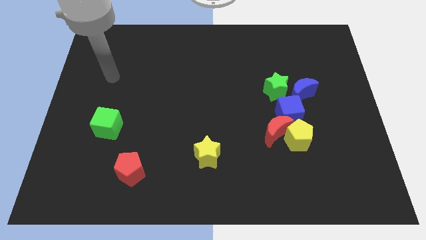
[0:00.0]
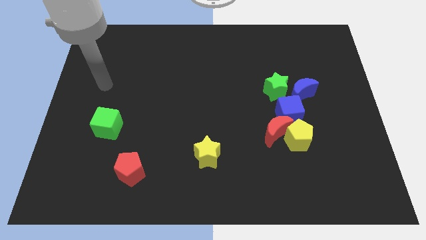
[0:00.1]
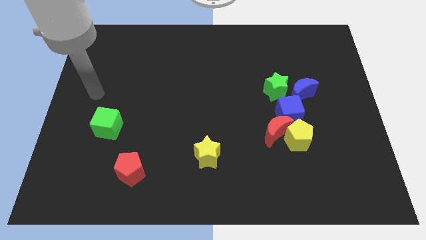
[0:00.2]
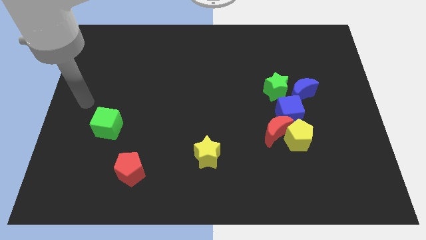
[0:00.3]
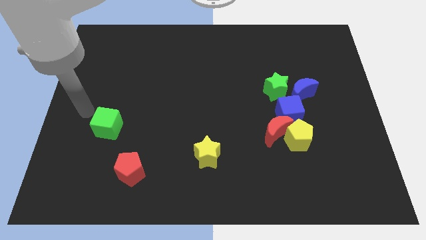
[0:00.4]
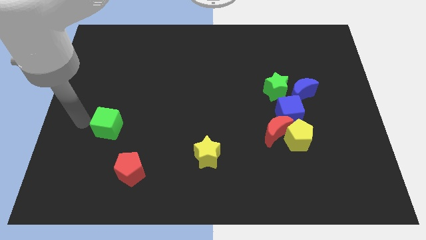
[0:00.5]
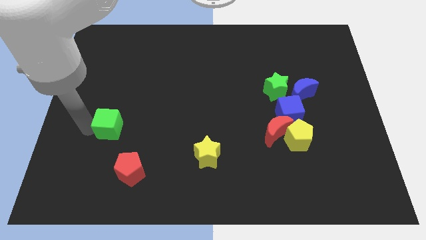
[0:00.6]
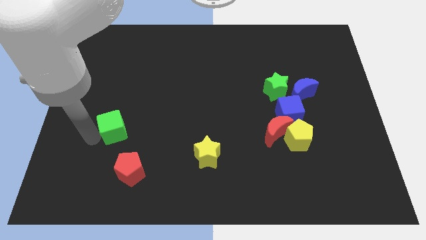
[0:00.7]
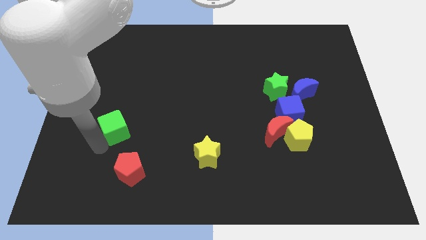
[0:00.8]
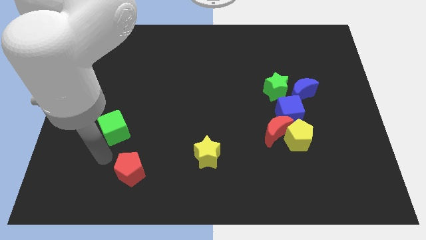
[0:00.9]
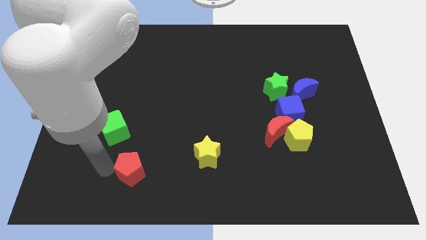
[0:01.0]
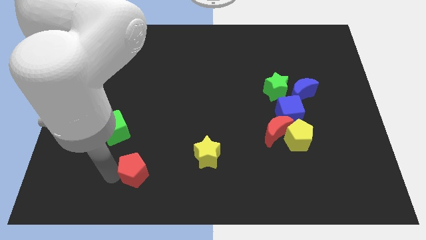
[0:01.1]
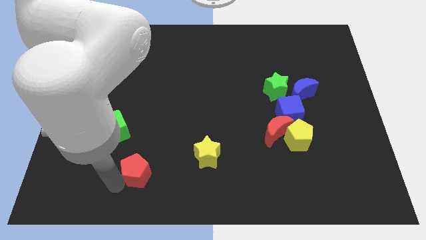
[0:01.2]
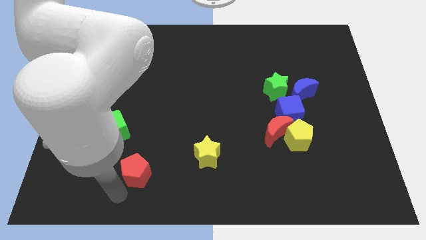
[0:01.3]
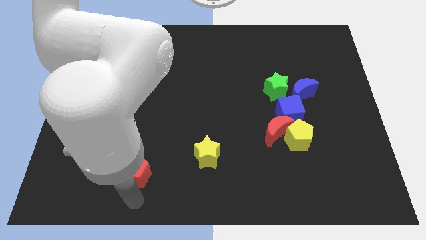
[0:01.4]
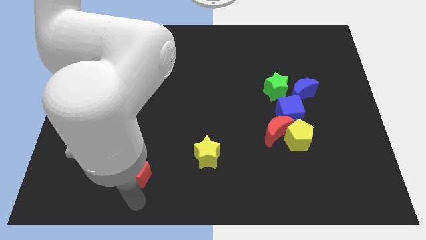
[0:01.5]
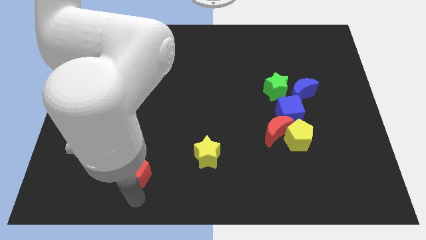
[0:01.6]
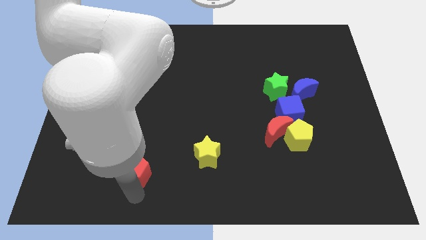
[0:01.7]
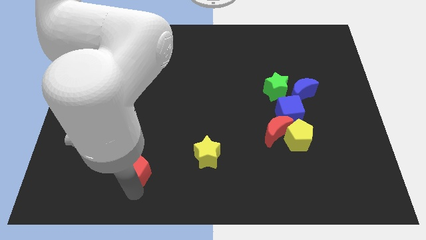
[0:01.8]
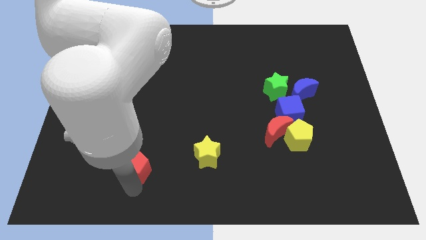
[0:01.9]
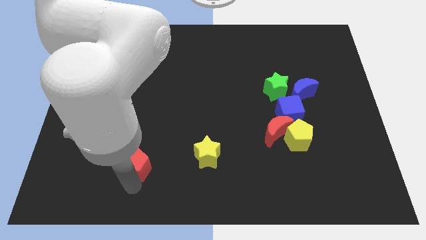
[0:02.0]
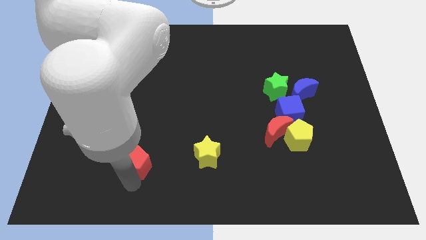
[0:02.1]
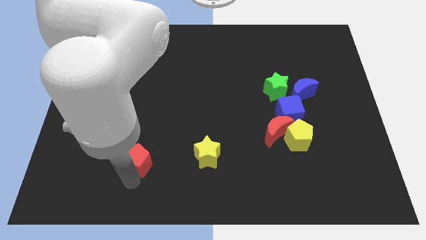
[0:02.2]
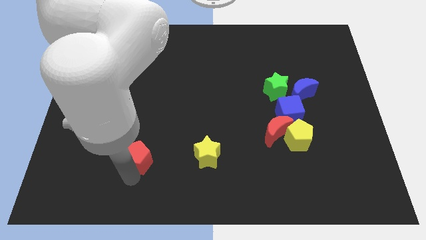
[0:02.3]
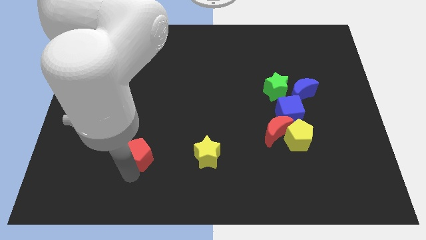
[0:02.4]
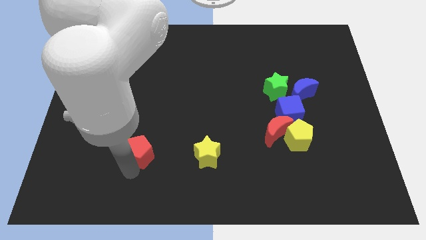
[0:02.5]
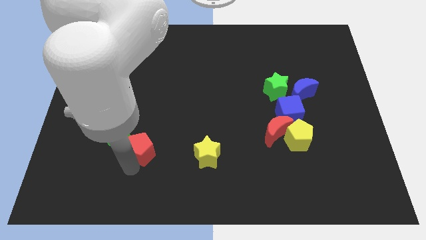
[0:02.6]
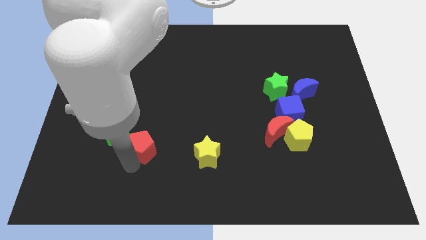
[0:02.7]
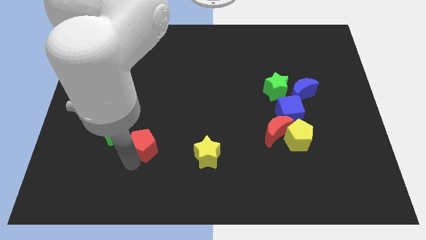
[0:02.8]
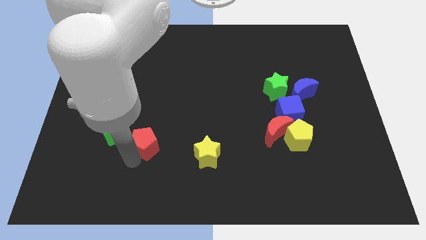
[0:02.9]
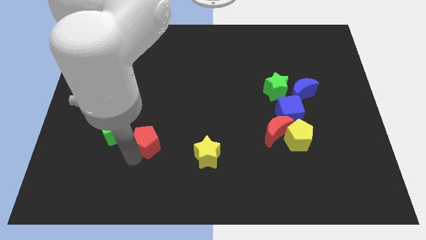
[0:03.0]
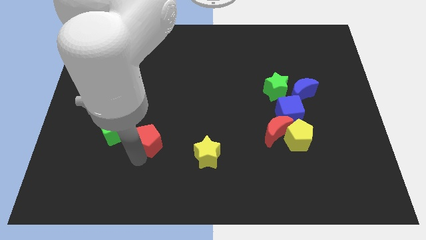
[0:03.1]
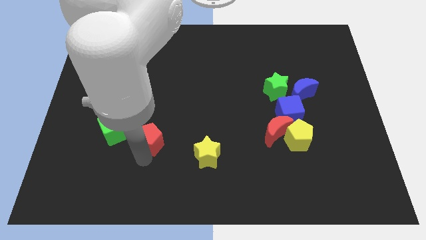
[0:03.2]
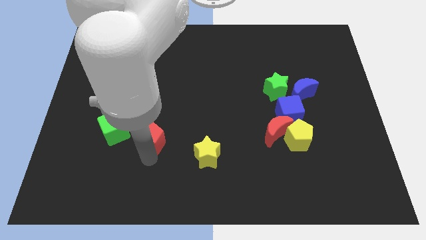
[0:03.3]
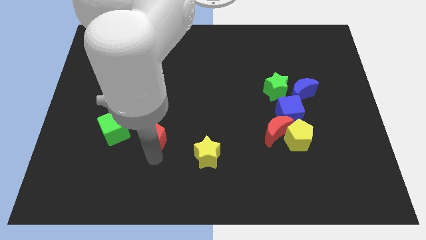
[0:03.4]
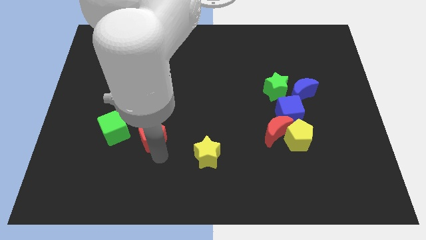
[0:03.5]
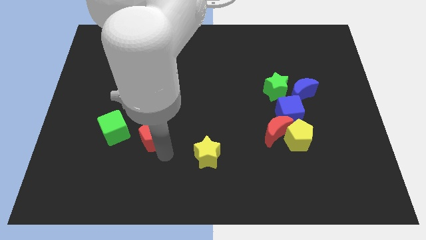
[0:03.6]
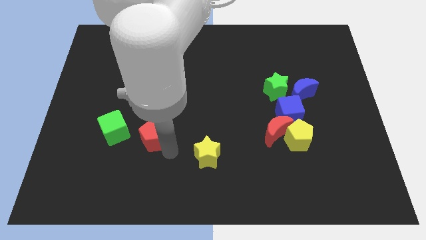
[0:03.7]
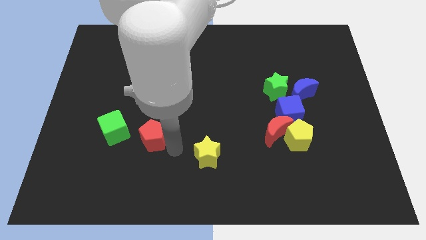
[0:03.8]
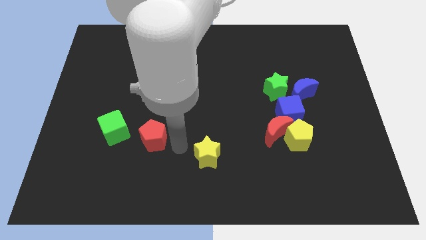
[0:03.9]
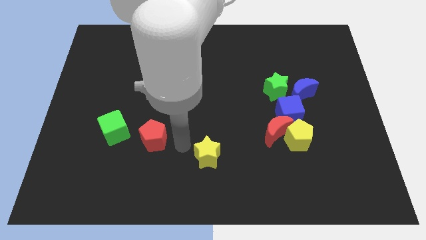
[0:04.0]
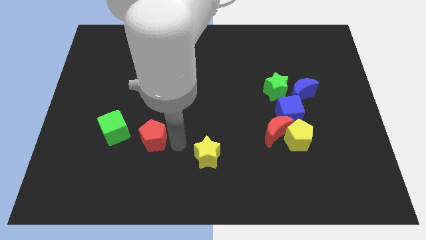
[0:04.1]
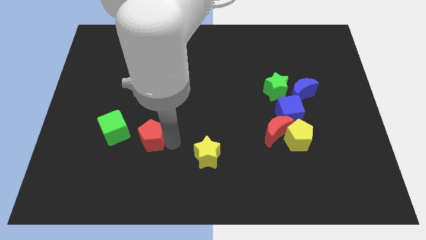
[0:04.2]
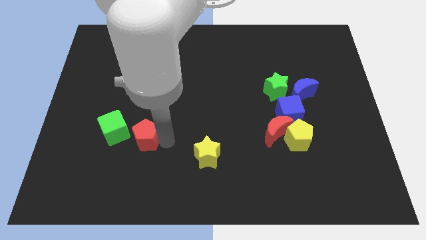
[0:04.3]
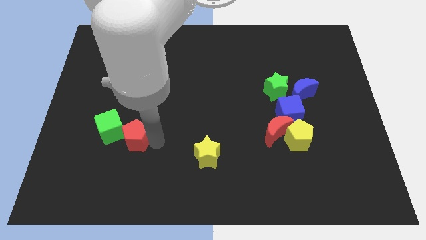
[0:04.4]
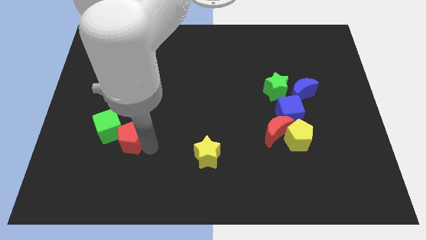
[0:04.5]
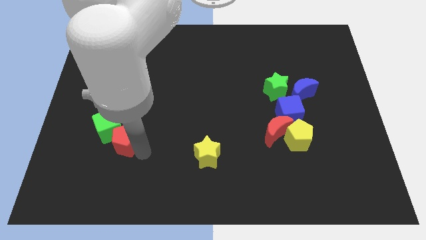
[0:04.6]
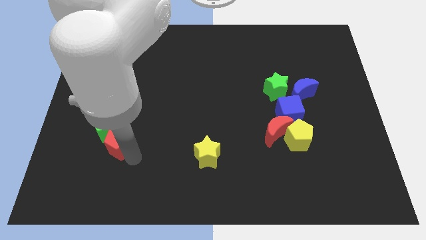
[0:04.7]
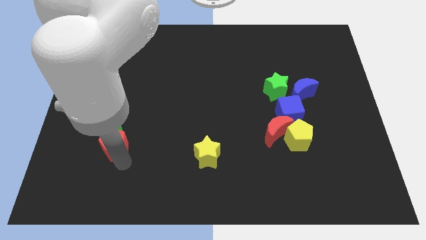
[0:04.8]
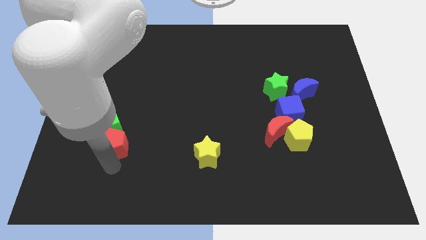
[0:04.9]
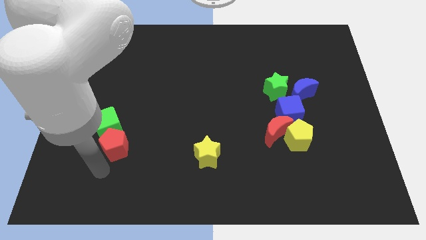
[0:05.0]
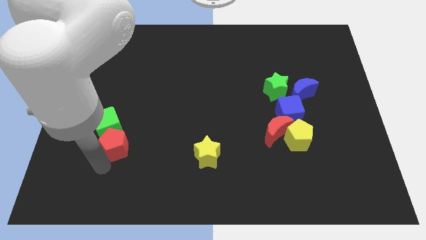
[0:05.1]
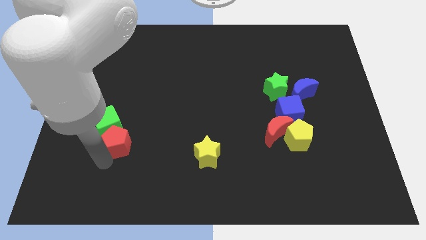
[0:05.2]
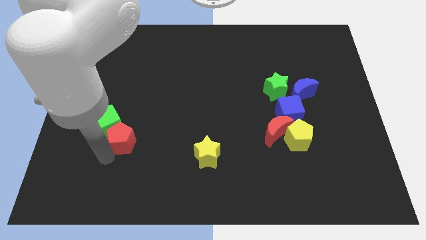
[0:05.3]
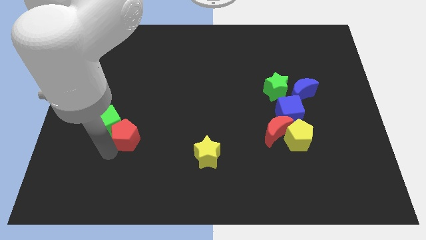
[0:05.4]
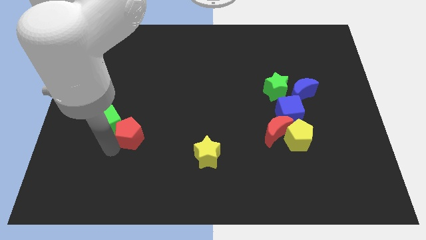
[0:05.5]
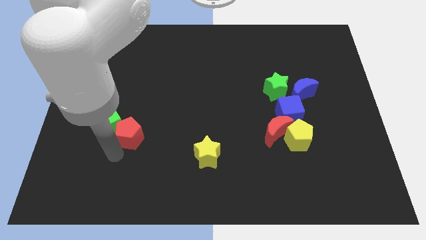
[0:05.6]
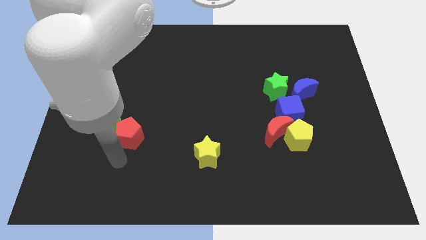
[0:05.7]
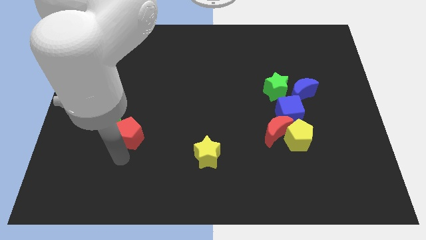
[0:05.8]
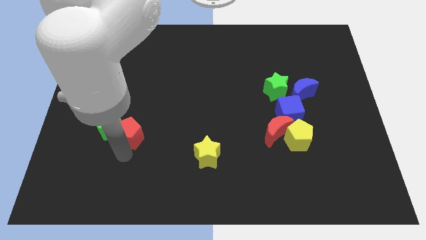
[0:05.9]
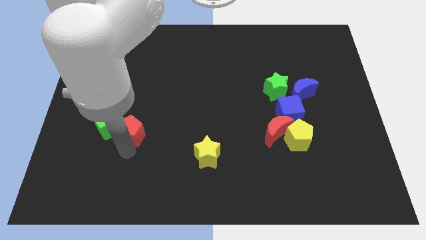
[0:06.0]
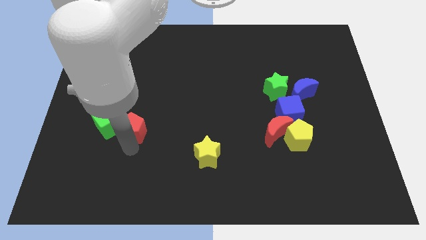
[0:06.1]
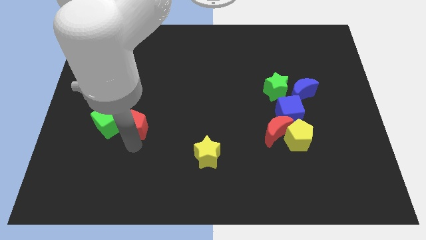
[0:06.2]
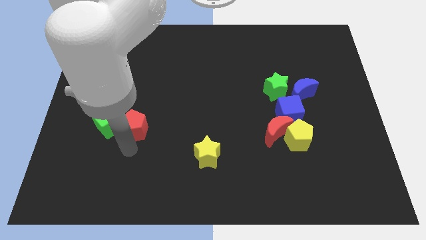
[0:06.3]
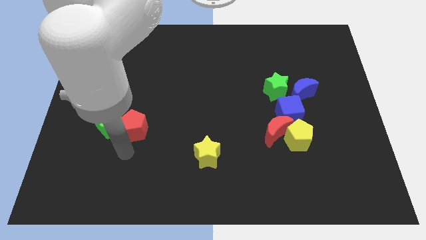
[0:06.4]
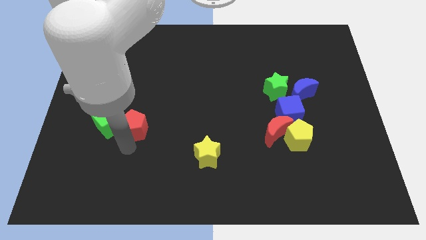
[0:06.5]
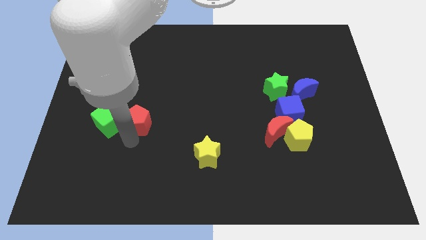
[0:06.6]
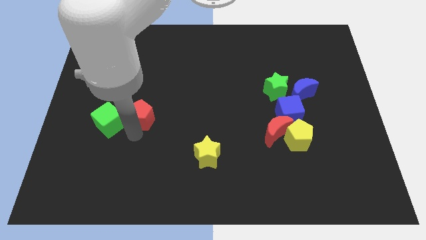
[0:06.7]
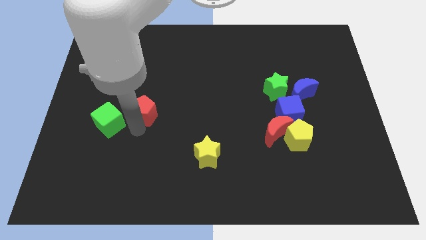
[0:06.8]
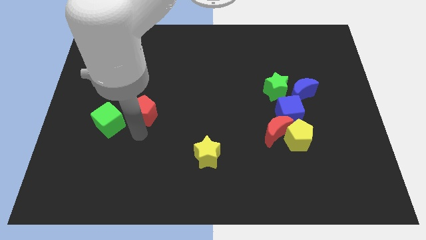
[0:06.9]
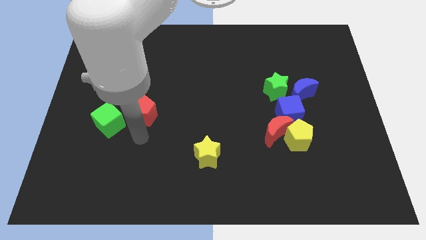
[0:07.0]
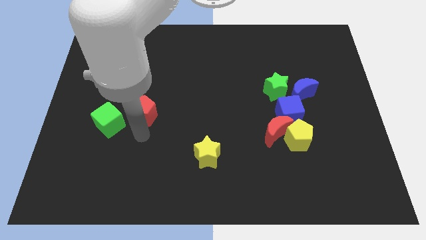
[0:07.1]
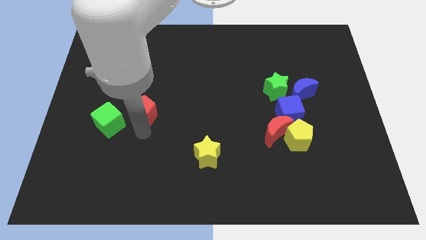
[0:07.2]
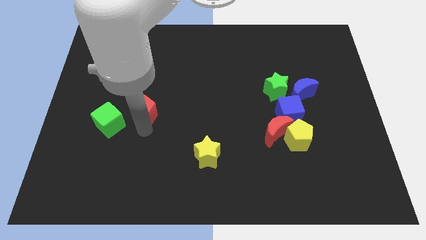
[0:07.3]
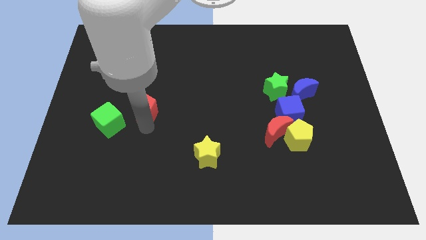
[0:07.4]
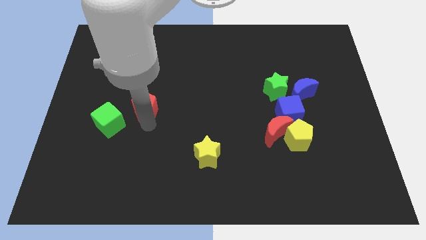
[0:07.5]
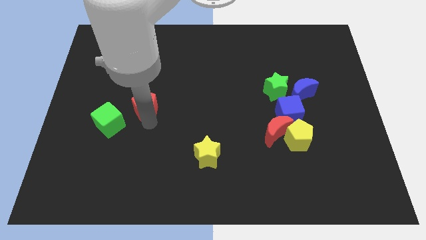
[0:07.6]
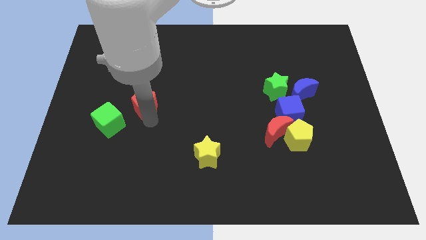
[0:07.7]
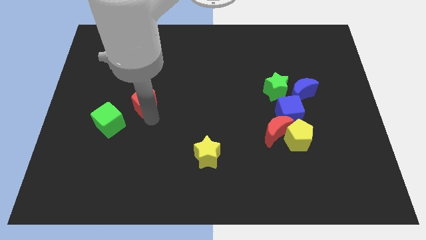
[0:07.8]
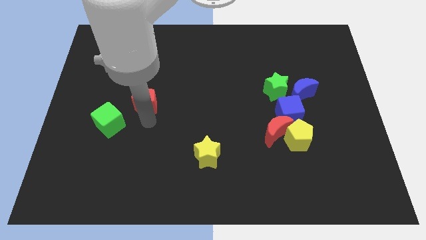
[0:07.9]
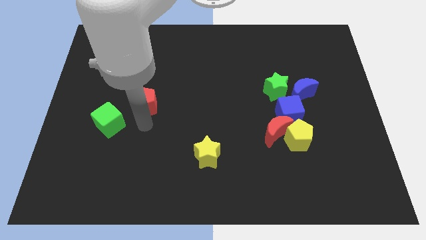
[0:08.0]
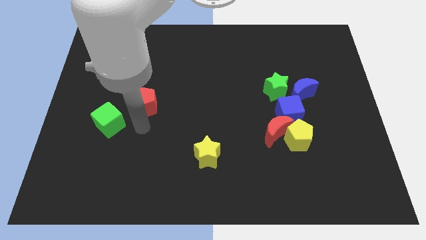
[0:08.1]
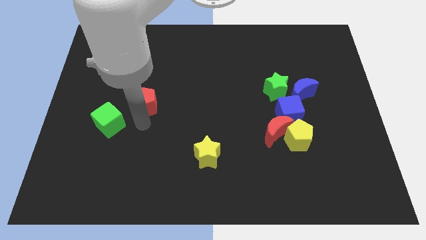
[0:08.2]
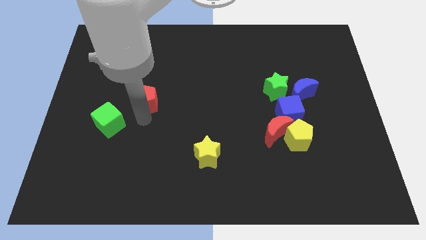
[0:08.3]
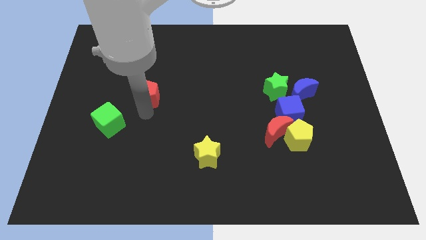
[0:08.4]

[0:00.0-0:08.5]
slide the red pentagon upwards
